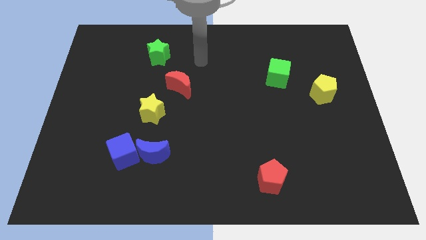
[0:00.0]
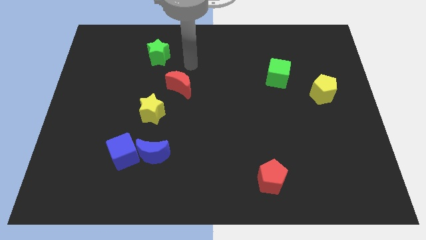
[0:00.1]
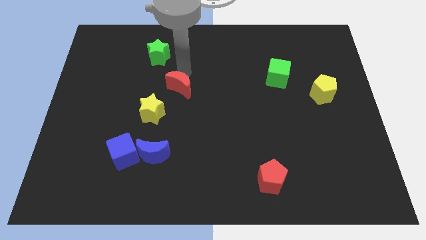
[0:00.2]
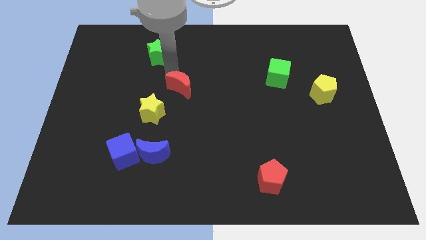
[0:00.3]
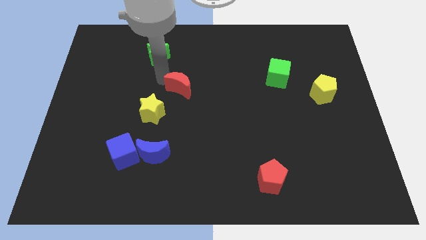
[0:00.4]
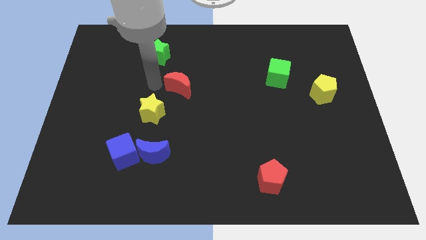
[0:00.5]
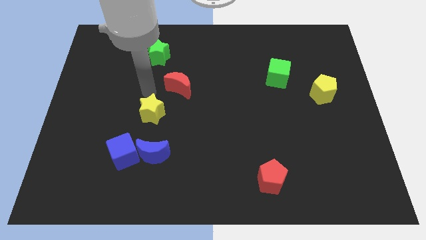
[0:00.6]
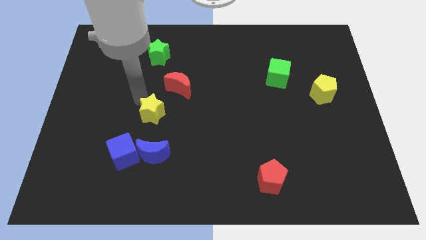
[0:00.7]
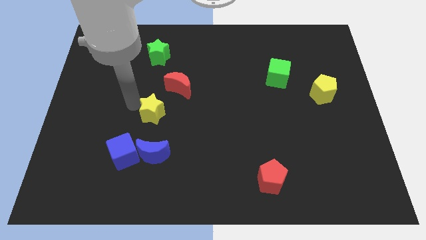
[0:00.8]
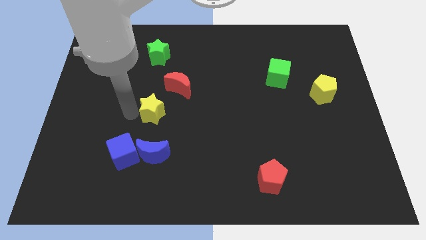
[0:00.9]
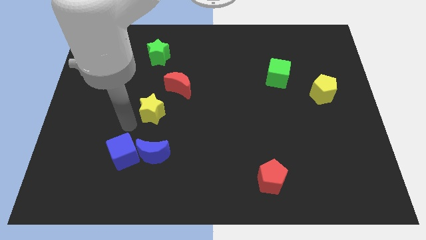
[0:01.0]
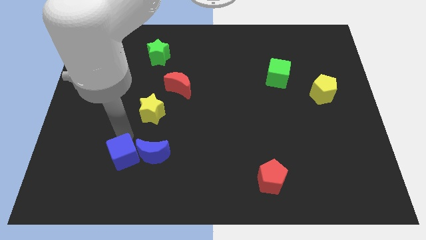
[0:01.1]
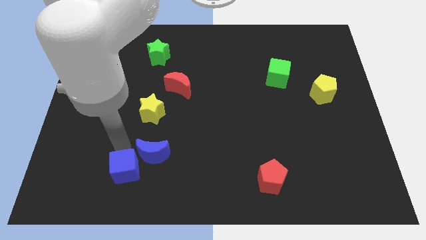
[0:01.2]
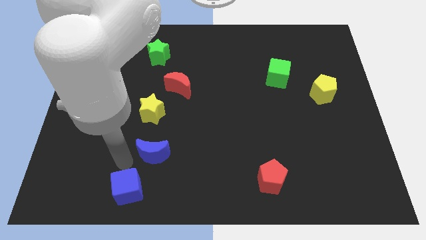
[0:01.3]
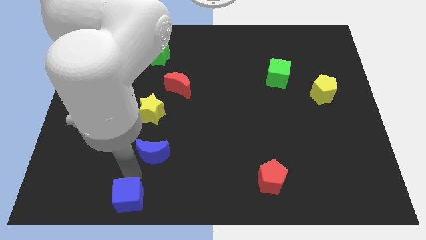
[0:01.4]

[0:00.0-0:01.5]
pull the blue moon apart from the blue cube

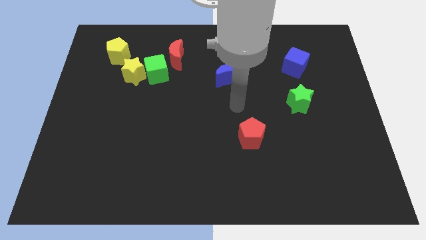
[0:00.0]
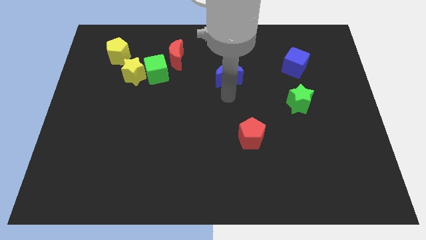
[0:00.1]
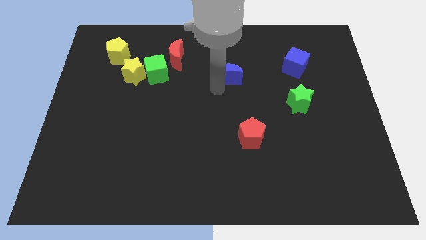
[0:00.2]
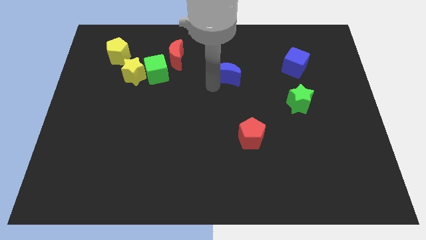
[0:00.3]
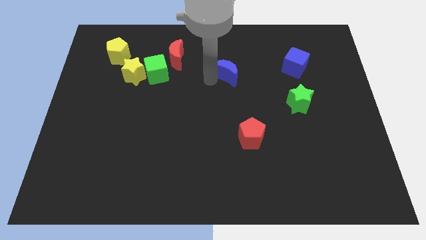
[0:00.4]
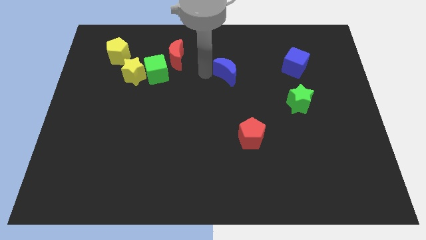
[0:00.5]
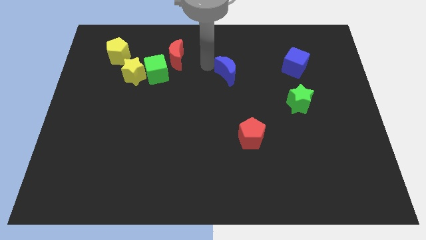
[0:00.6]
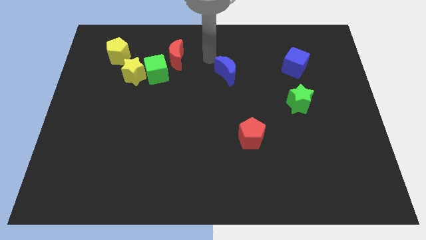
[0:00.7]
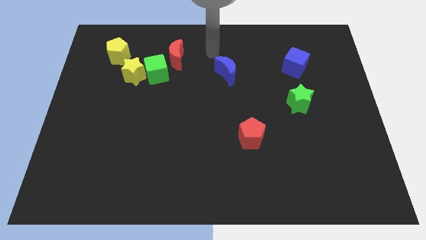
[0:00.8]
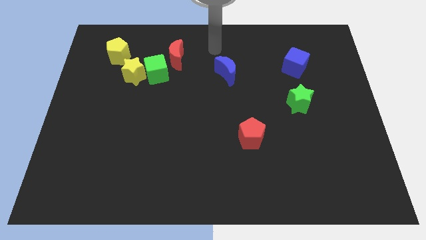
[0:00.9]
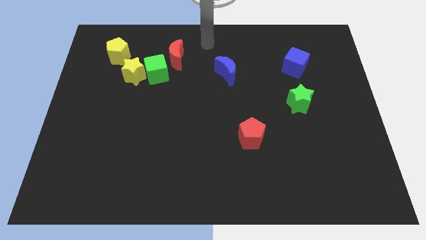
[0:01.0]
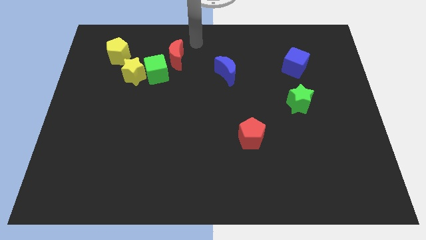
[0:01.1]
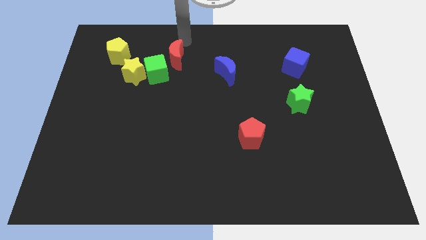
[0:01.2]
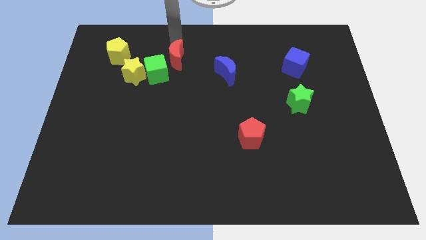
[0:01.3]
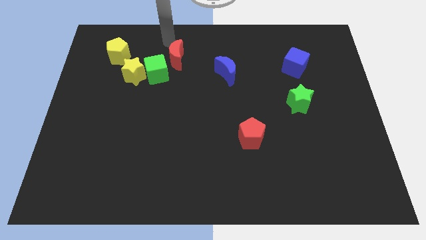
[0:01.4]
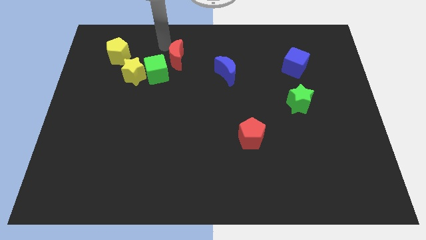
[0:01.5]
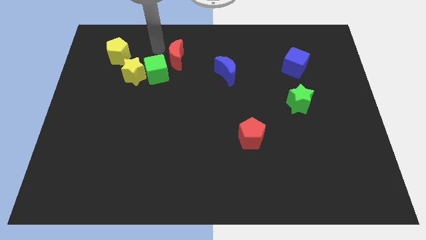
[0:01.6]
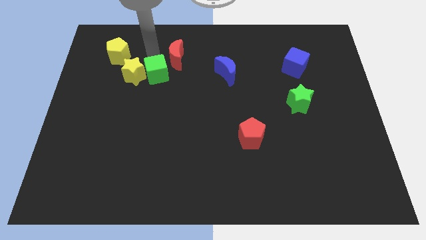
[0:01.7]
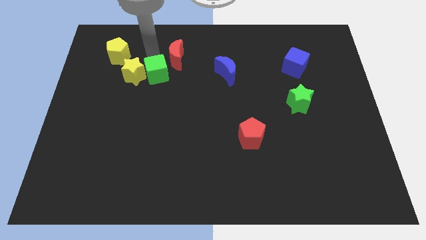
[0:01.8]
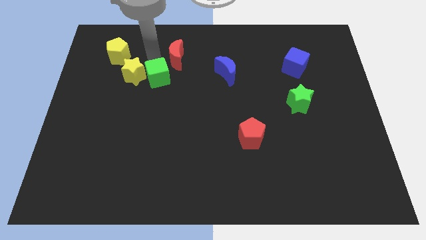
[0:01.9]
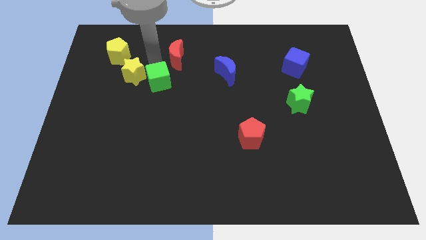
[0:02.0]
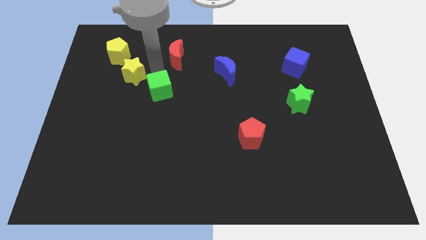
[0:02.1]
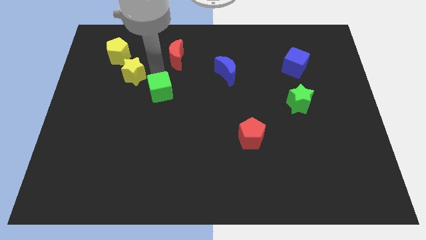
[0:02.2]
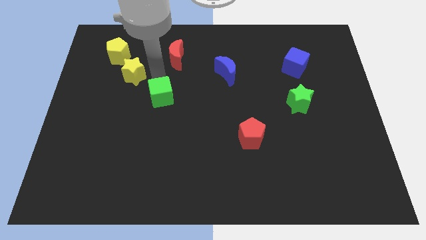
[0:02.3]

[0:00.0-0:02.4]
separate the green cube from the yellow star and red moon

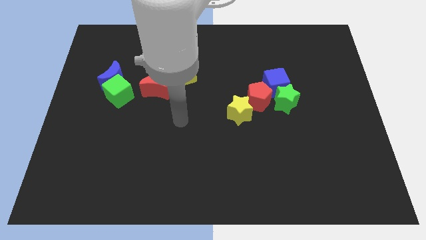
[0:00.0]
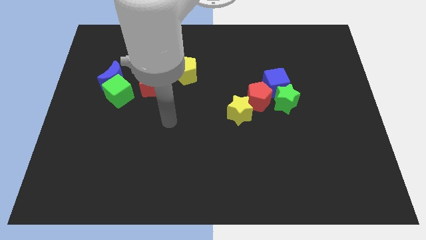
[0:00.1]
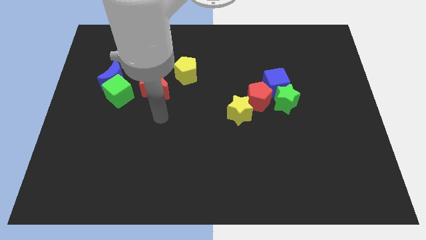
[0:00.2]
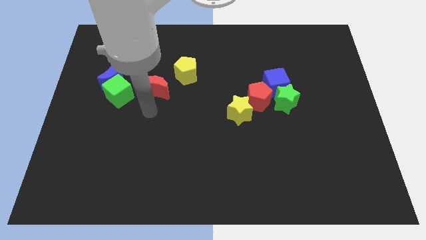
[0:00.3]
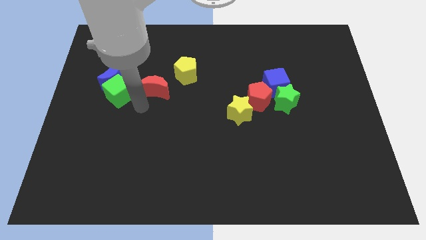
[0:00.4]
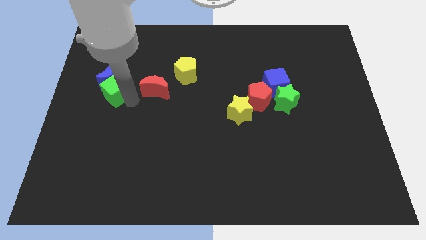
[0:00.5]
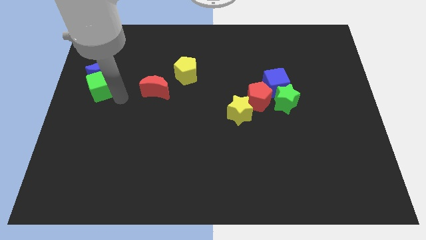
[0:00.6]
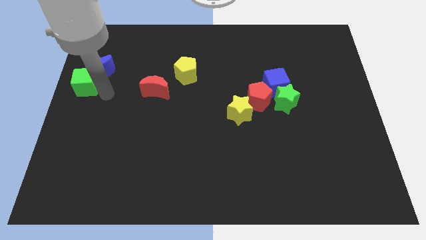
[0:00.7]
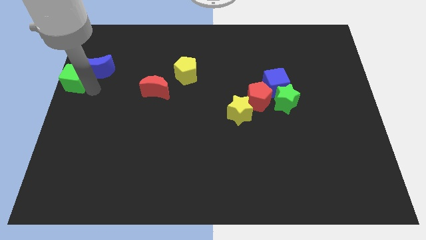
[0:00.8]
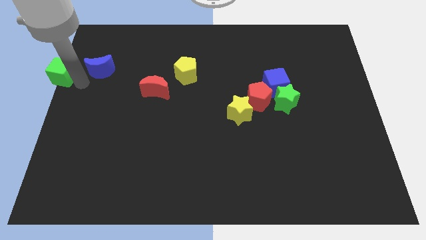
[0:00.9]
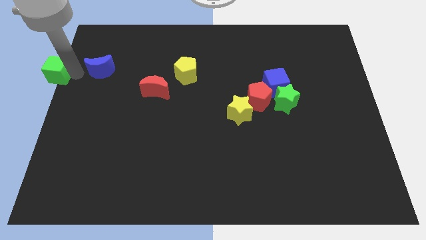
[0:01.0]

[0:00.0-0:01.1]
separate the blue moon from the green cube

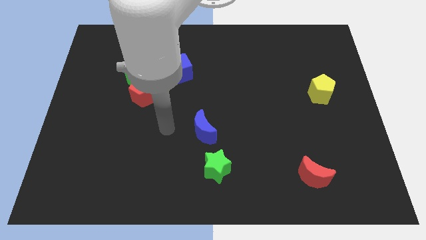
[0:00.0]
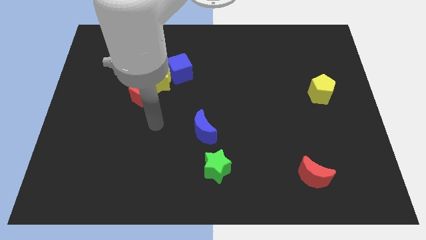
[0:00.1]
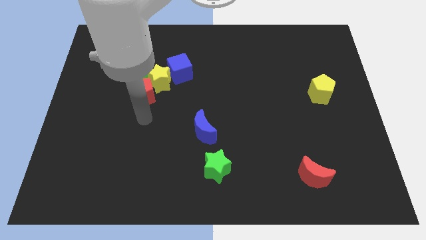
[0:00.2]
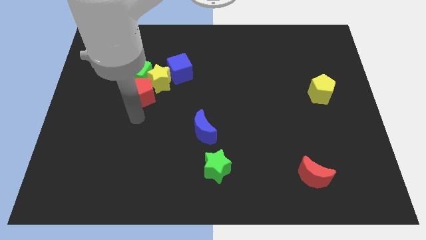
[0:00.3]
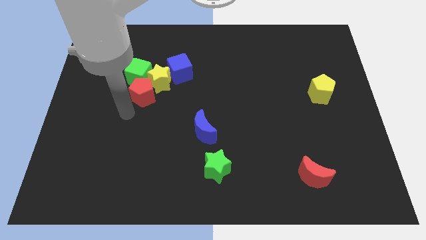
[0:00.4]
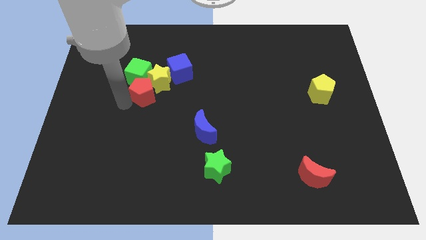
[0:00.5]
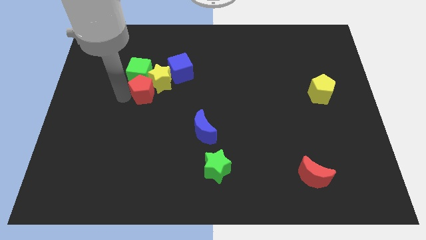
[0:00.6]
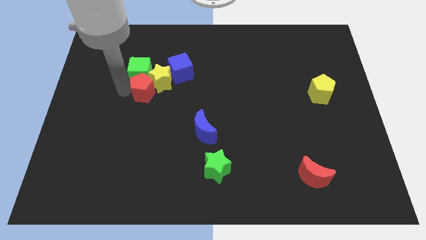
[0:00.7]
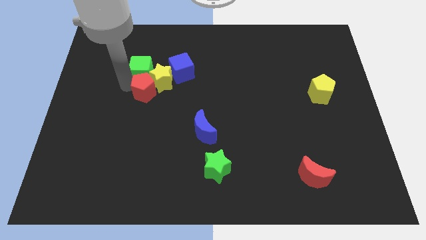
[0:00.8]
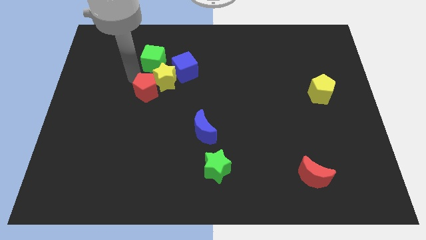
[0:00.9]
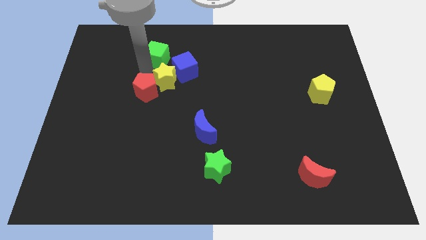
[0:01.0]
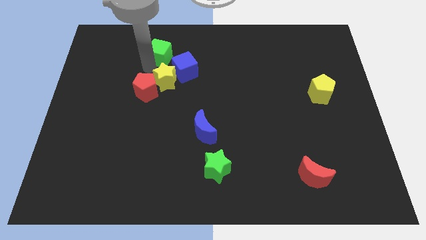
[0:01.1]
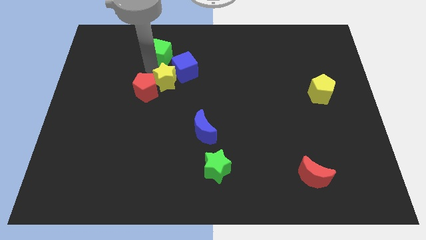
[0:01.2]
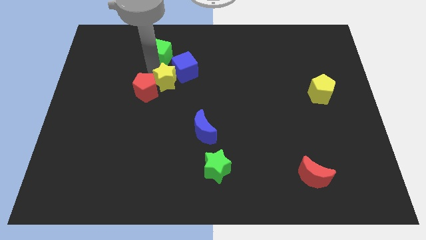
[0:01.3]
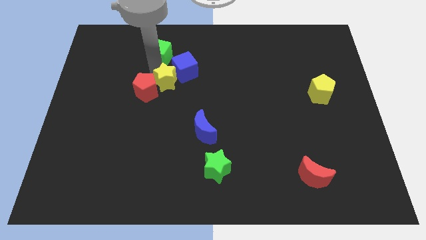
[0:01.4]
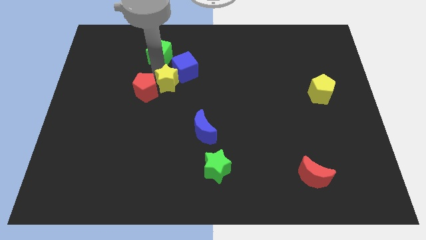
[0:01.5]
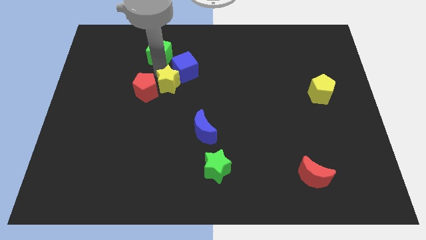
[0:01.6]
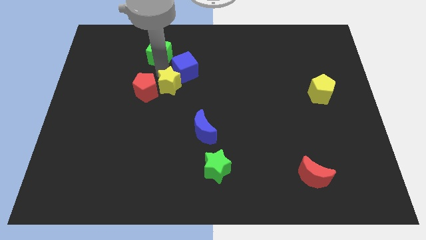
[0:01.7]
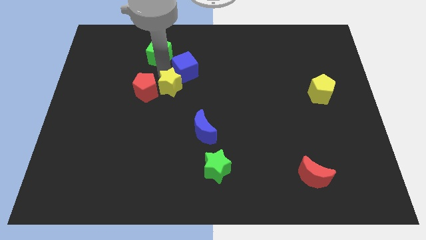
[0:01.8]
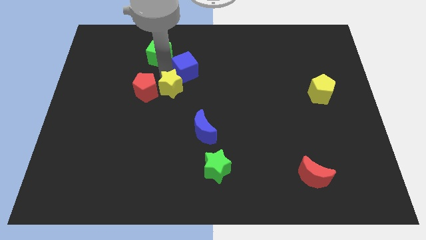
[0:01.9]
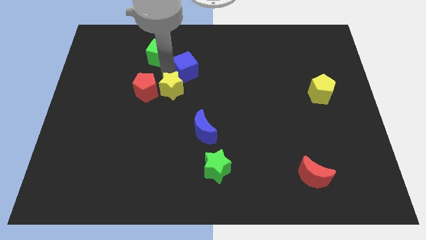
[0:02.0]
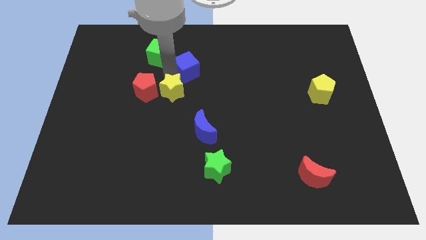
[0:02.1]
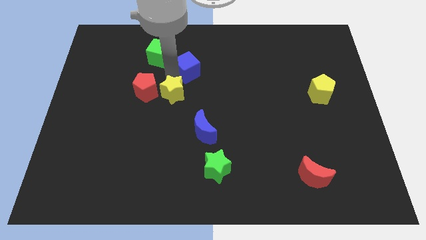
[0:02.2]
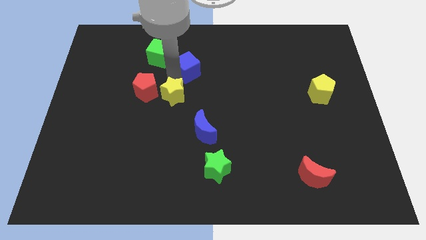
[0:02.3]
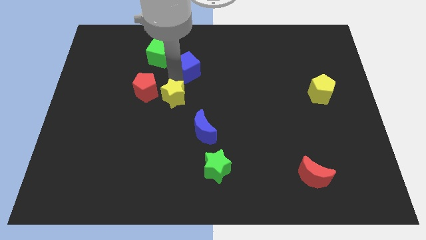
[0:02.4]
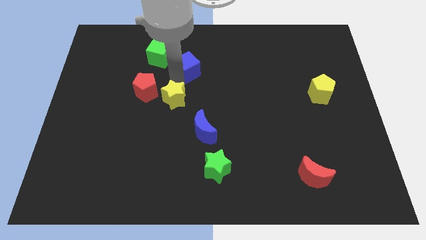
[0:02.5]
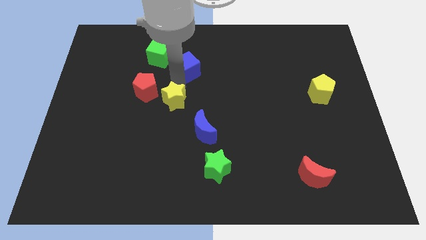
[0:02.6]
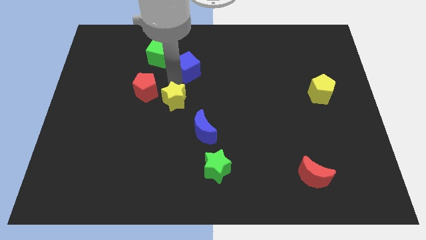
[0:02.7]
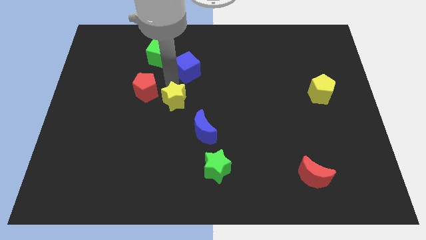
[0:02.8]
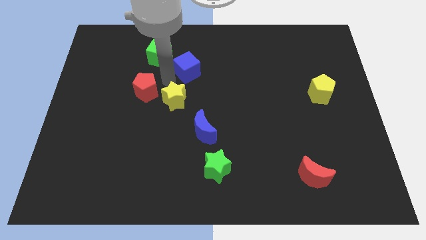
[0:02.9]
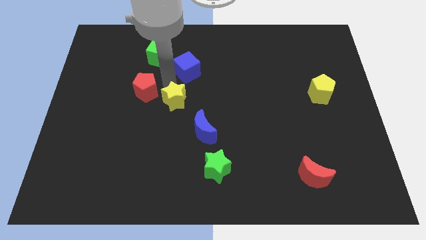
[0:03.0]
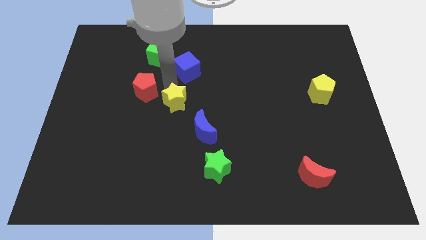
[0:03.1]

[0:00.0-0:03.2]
separate the yellow star from the red pentagon, green cube, and blue cube

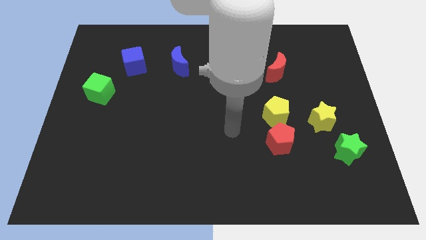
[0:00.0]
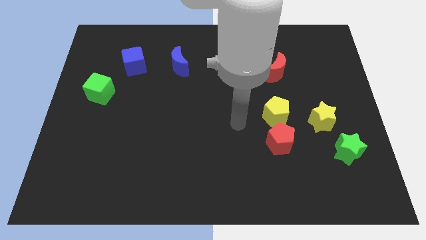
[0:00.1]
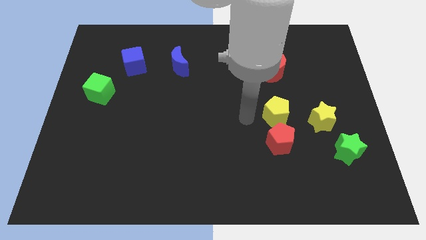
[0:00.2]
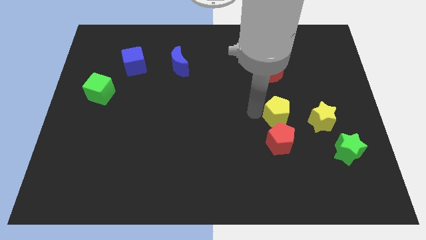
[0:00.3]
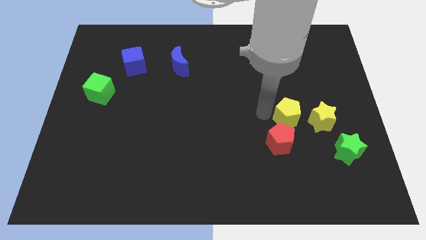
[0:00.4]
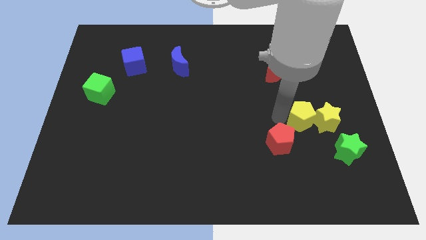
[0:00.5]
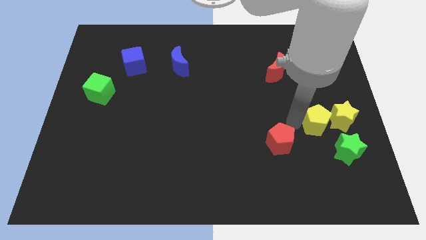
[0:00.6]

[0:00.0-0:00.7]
separate the red pentagon from the yellow pentagon

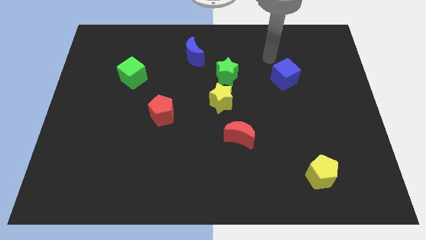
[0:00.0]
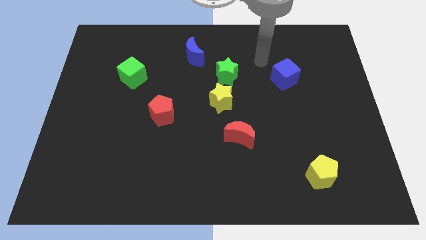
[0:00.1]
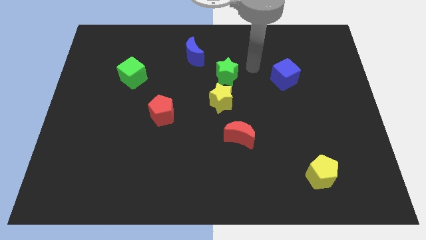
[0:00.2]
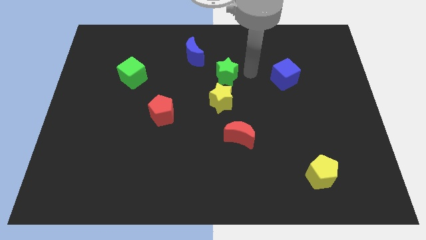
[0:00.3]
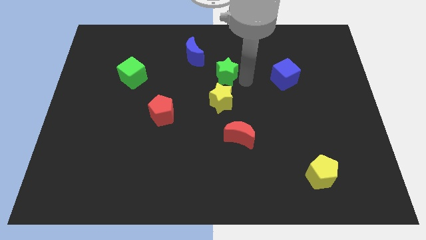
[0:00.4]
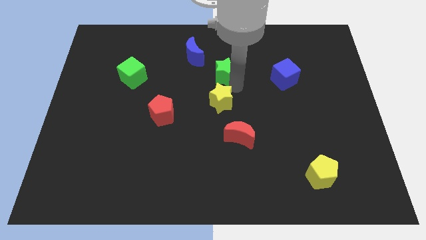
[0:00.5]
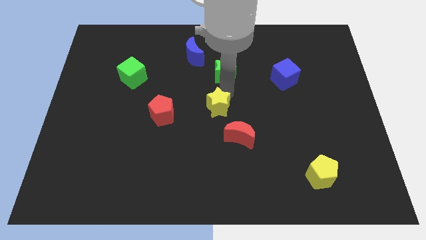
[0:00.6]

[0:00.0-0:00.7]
pull the green star apart from the yellow star
